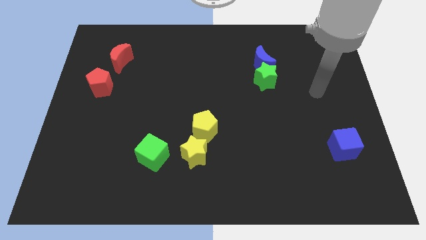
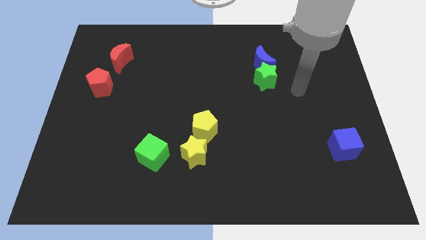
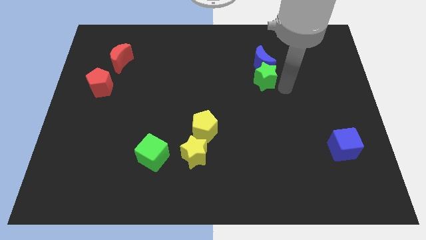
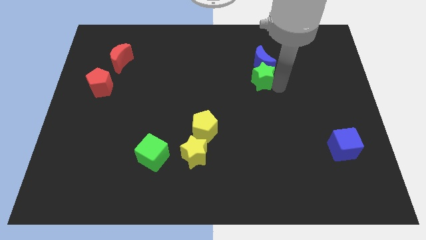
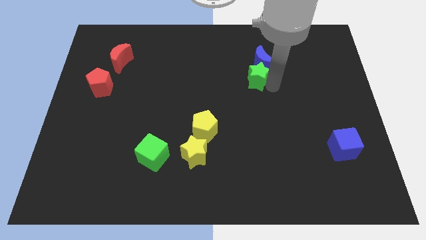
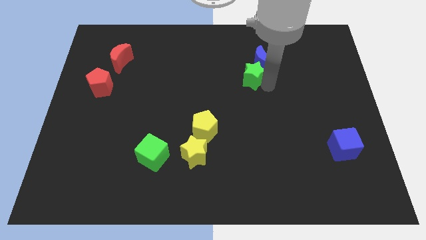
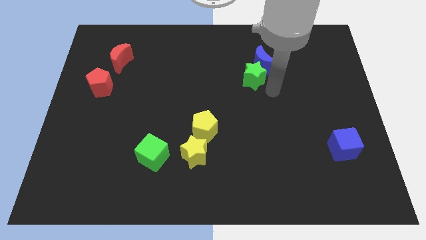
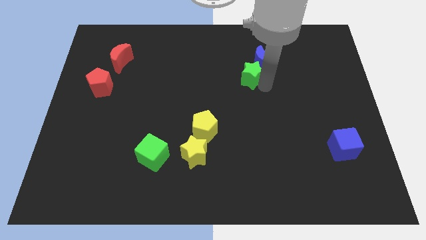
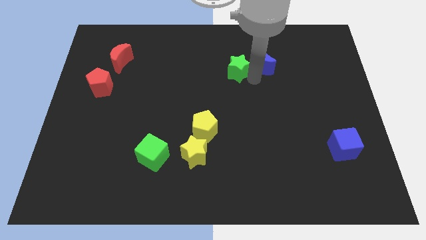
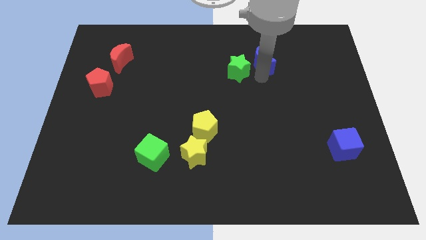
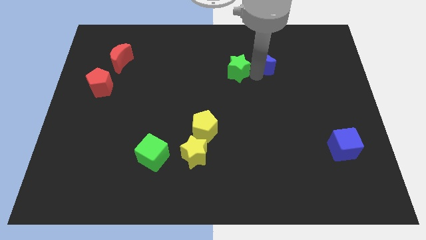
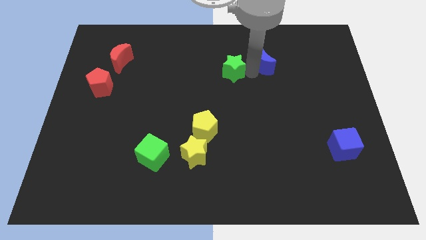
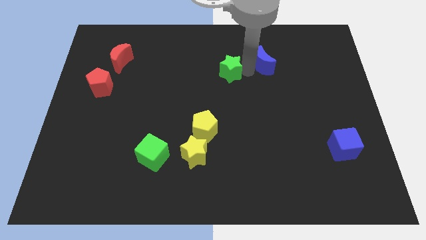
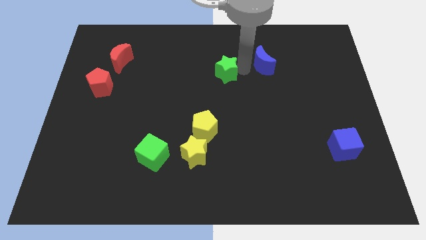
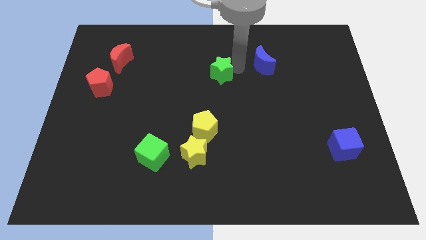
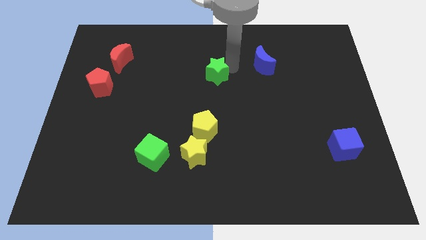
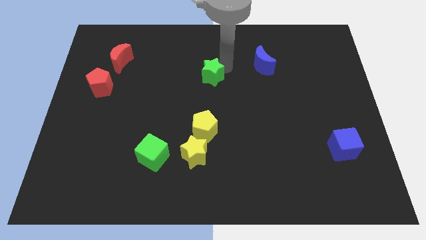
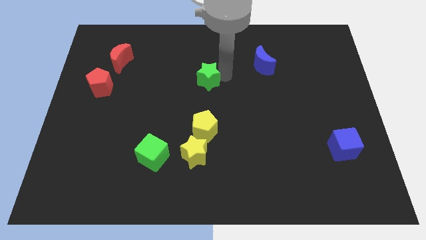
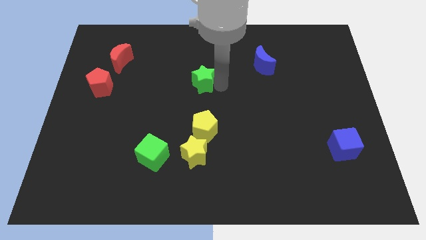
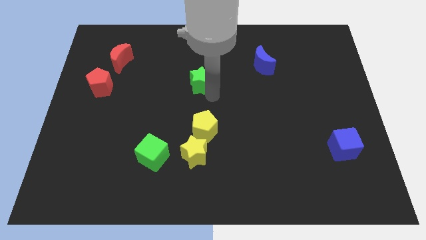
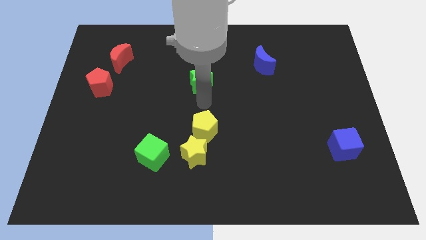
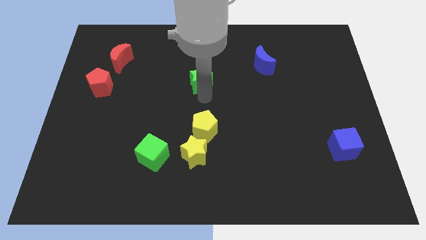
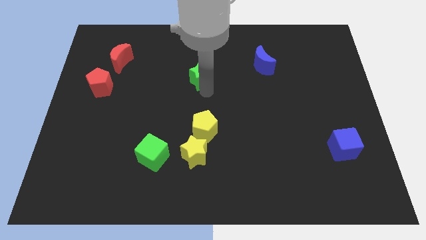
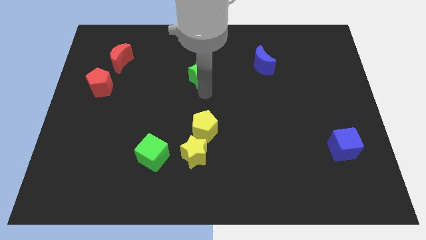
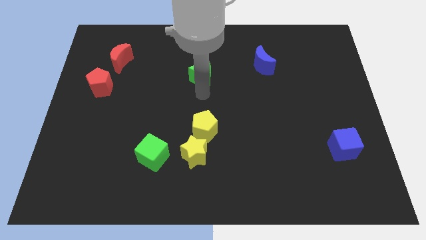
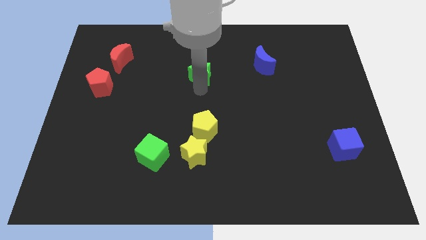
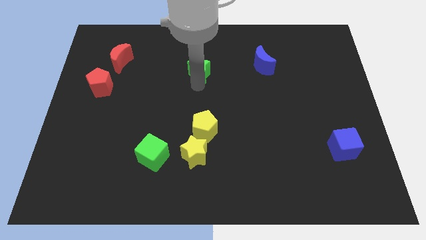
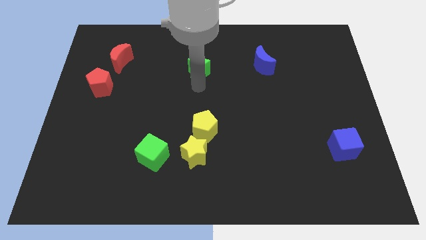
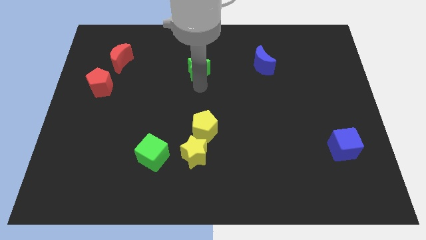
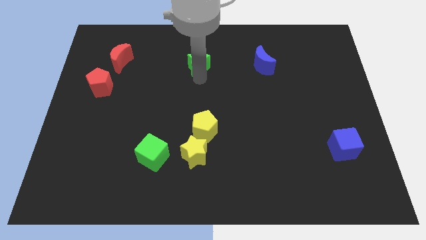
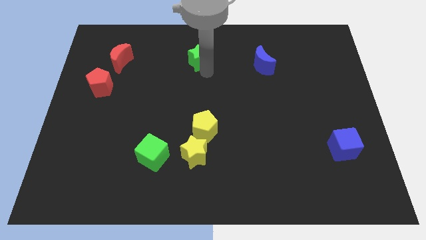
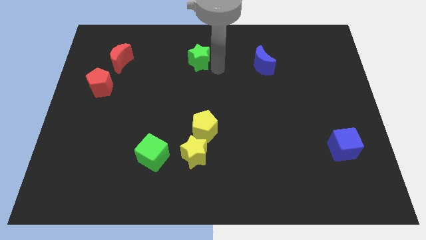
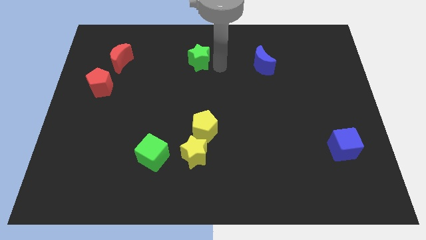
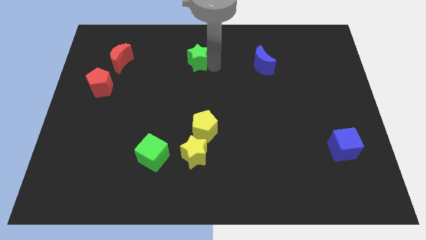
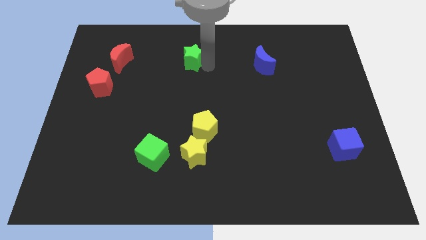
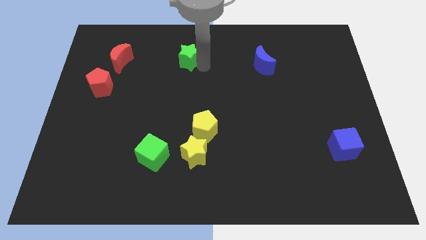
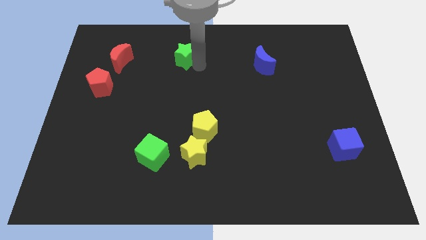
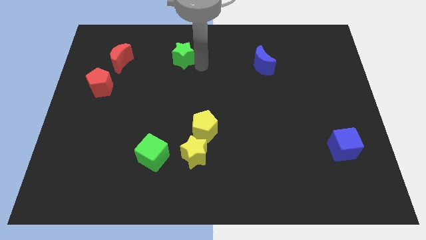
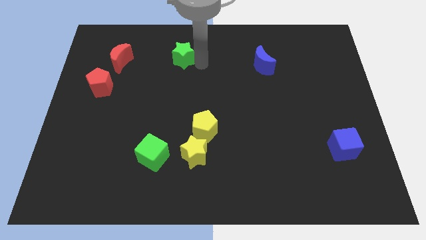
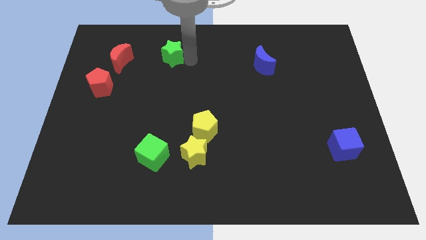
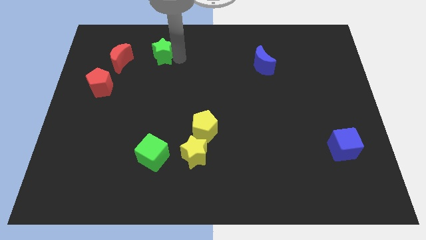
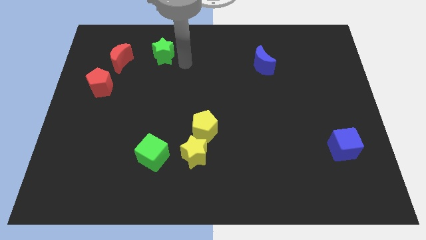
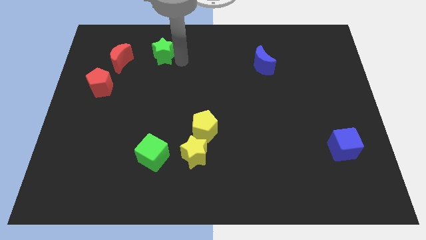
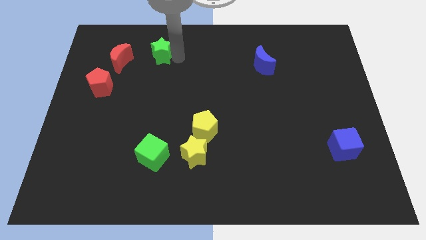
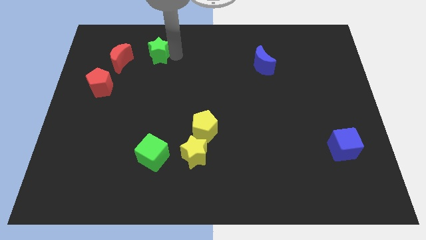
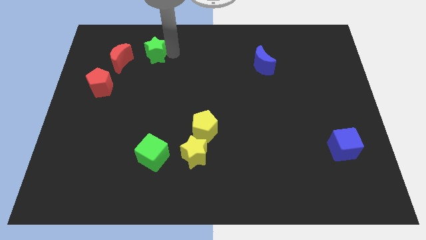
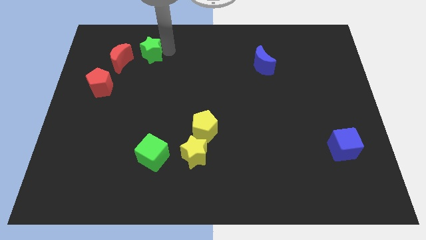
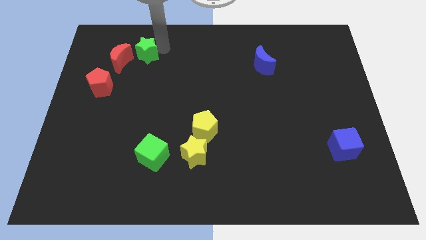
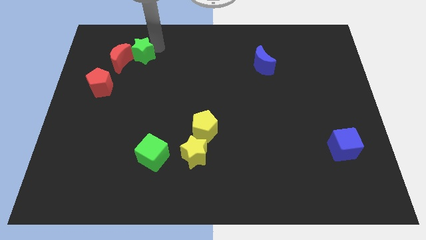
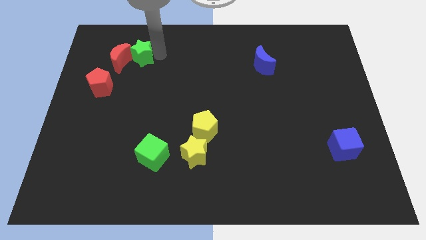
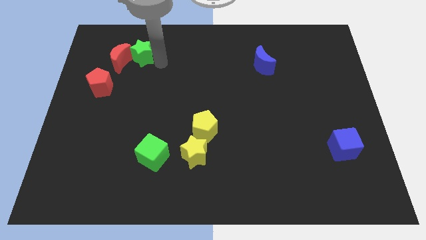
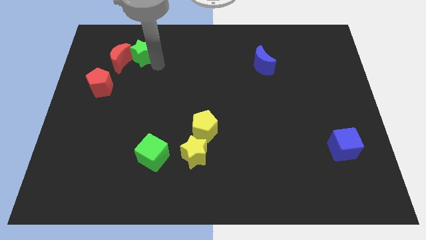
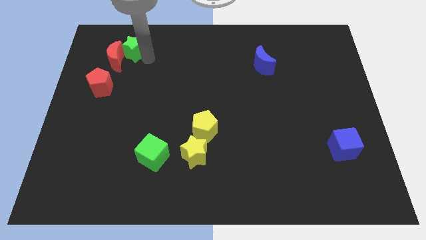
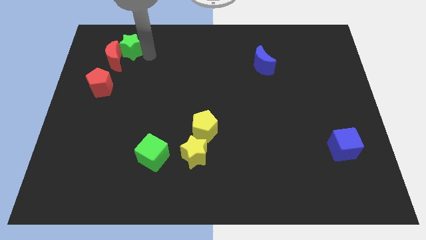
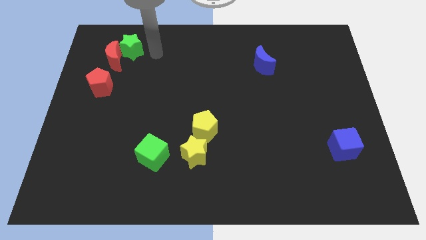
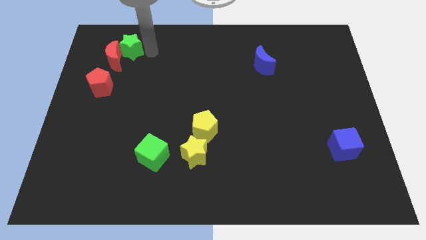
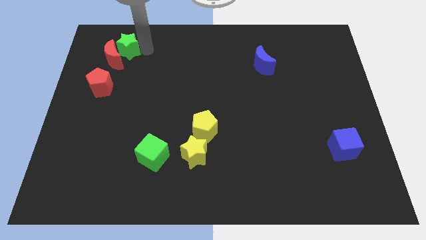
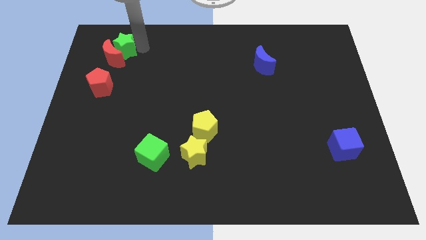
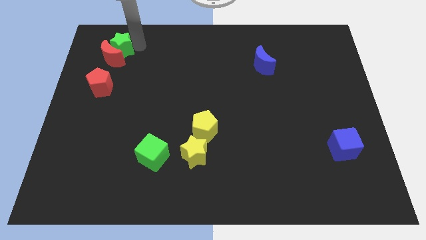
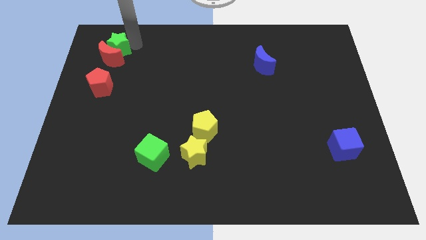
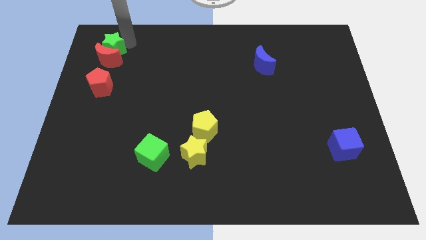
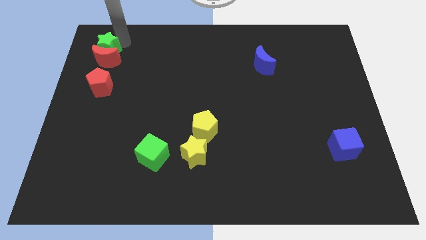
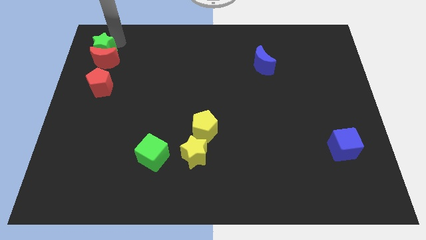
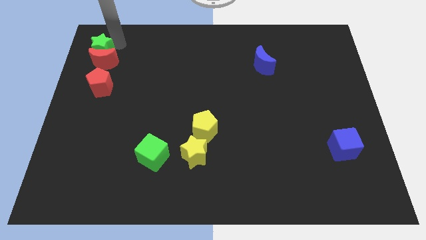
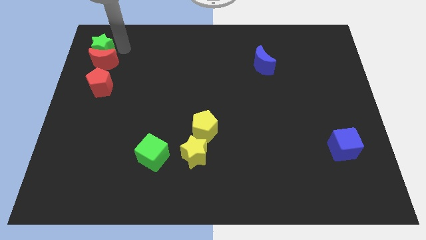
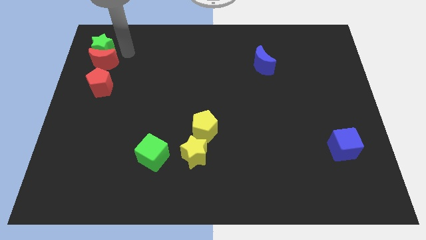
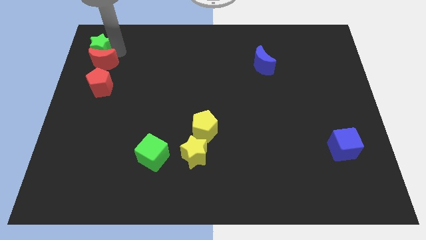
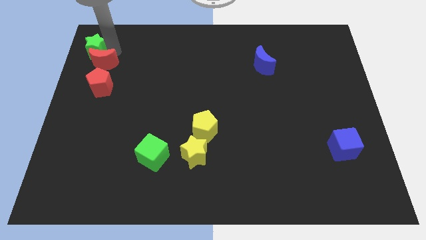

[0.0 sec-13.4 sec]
push the green star to the top left corner
